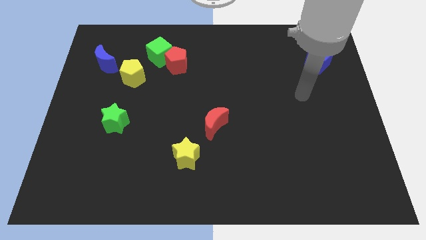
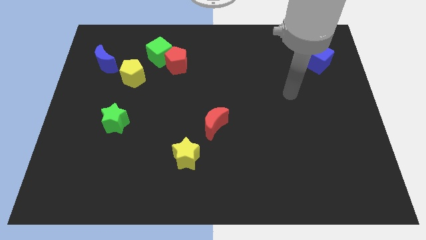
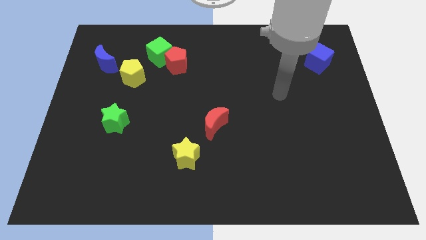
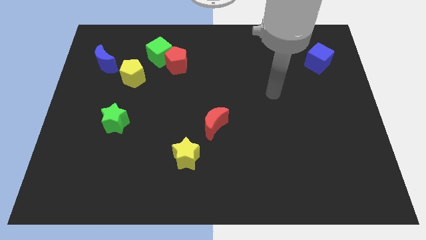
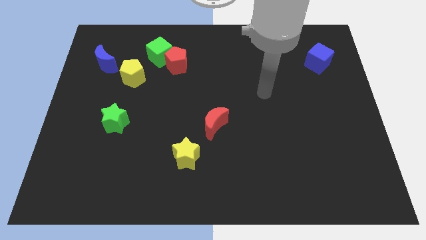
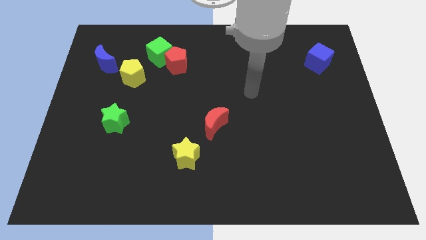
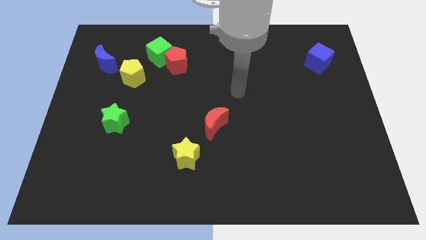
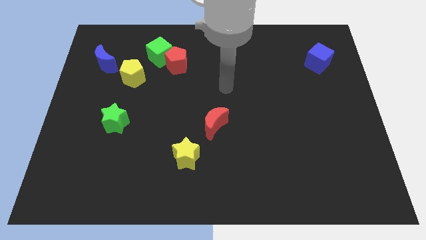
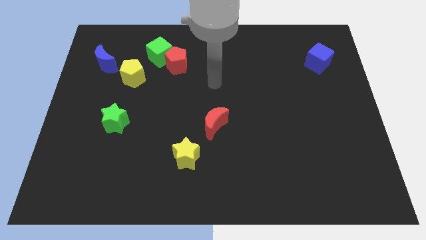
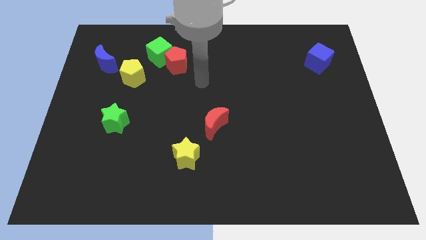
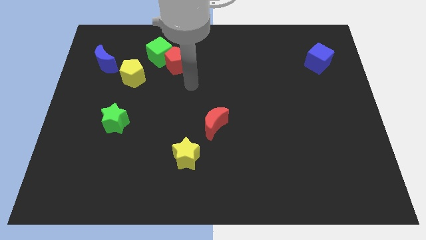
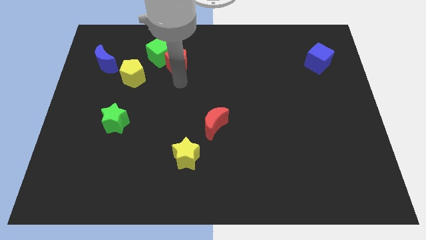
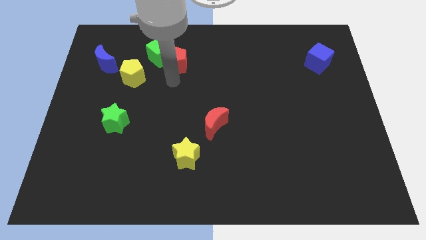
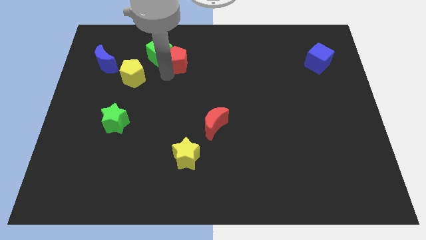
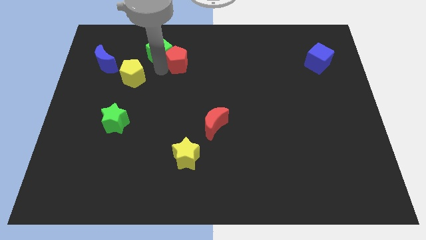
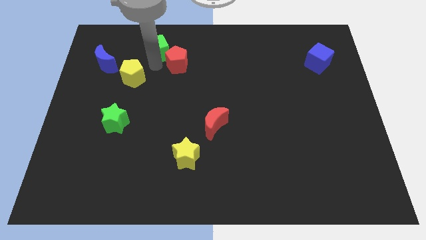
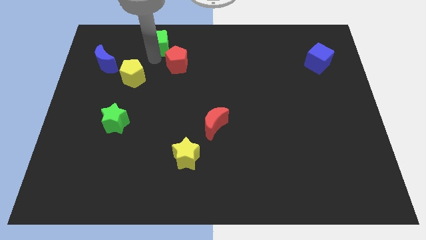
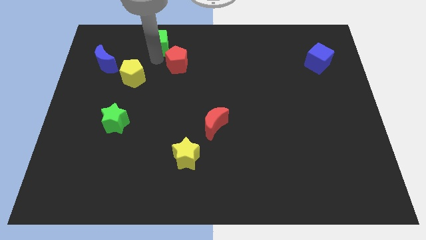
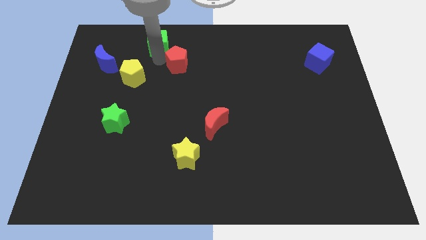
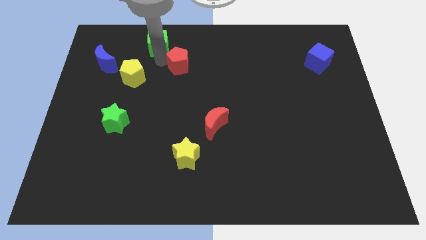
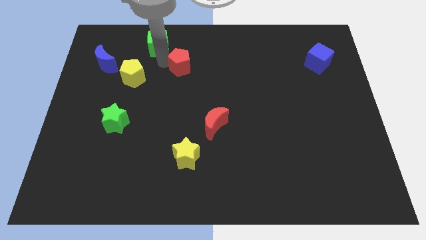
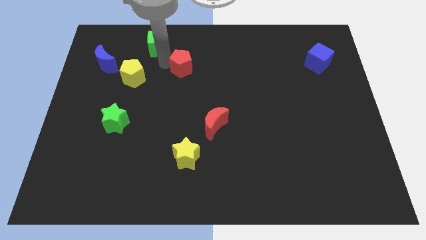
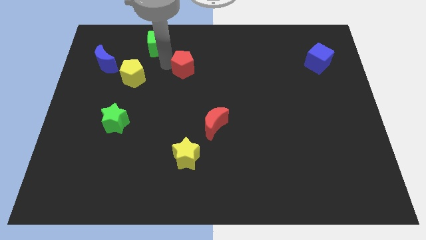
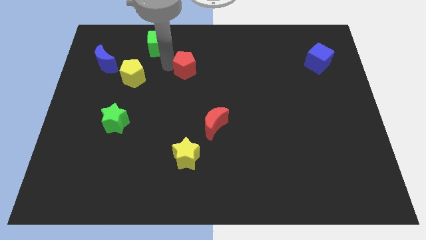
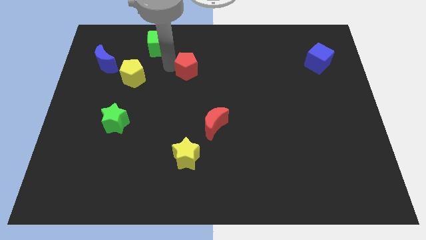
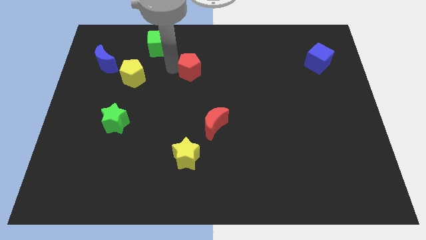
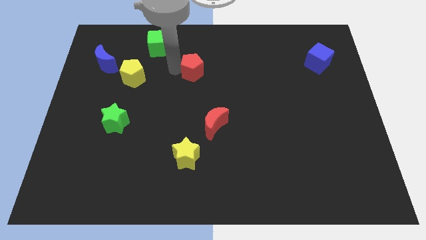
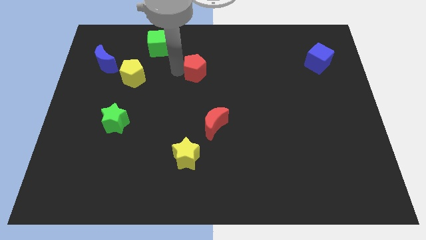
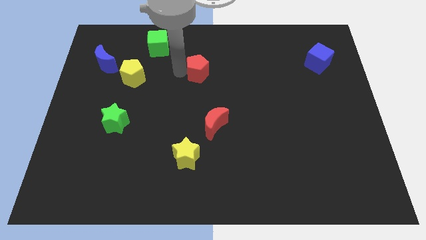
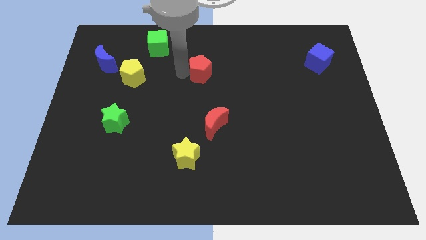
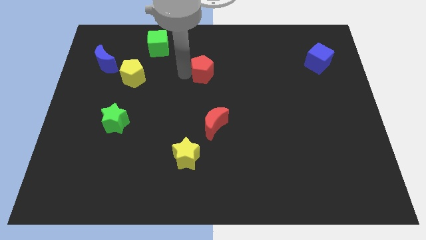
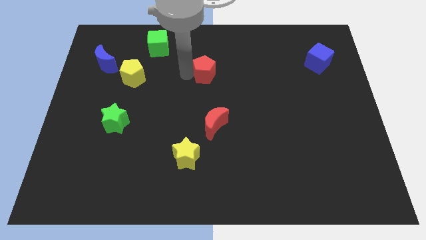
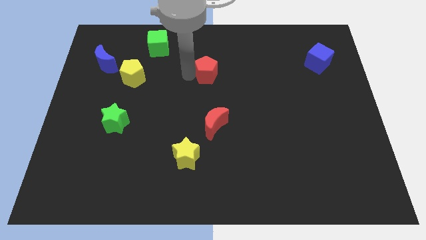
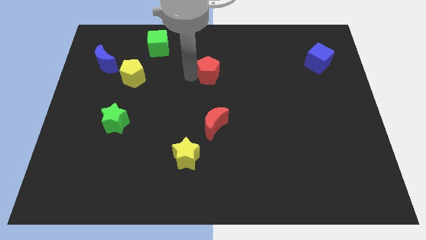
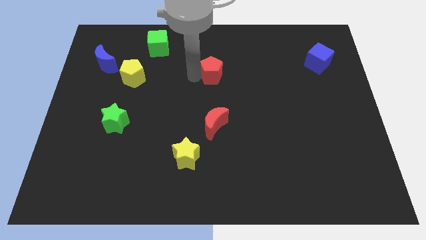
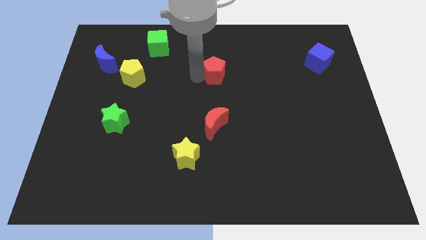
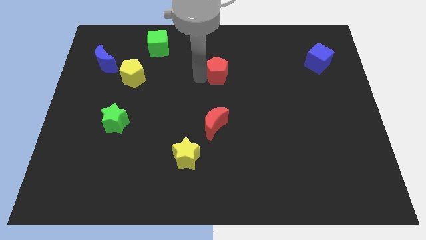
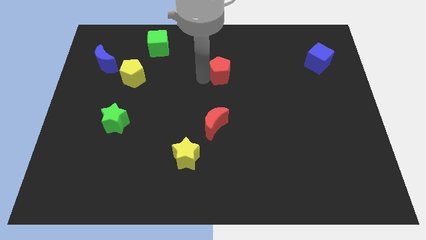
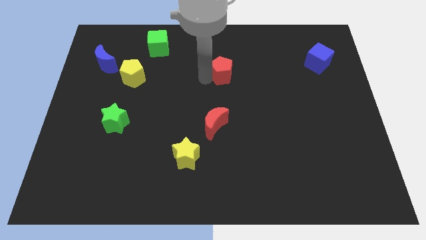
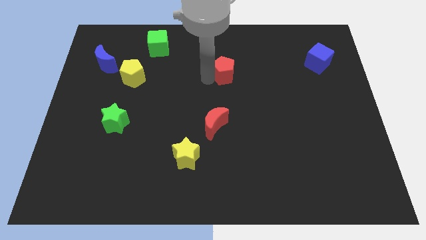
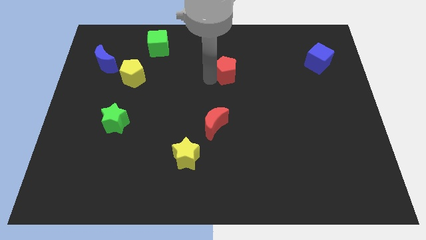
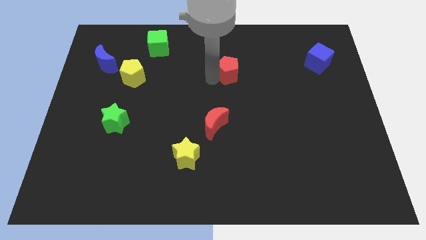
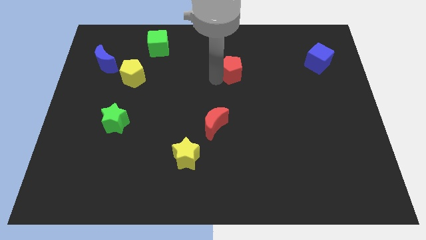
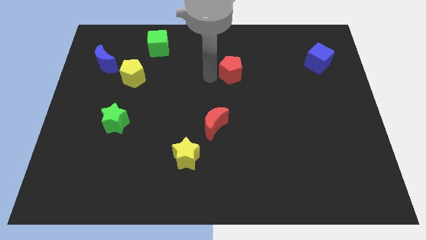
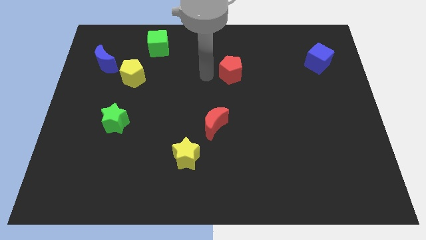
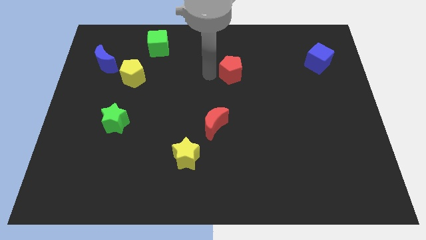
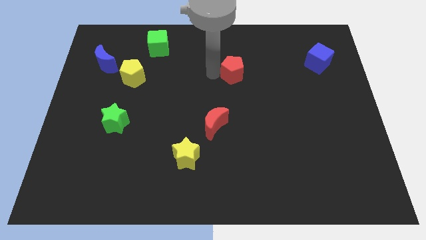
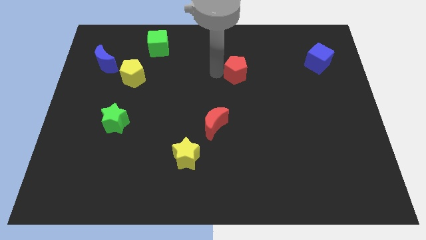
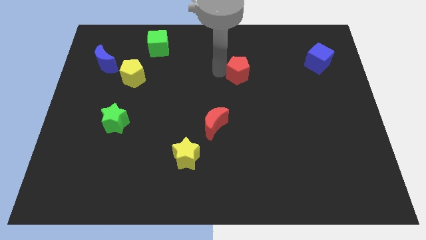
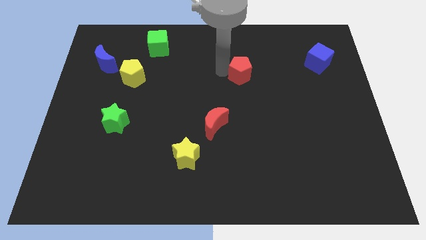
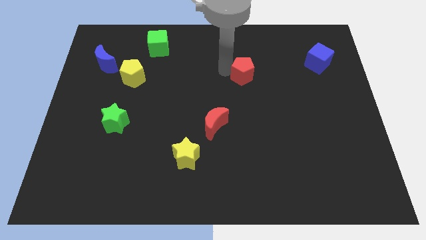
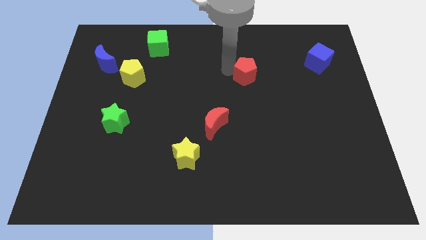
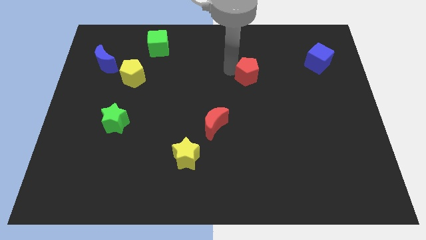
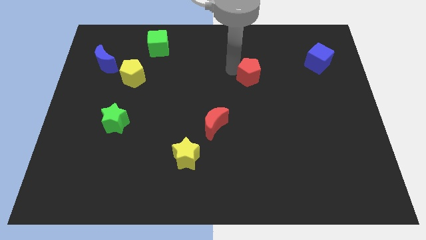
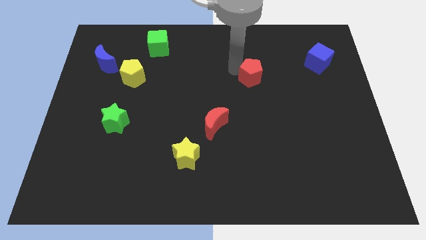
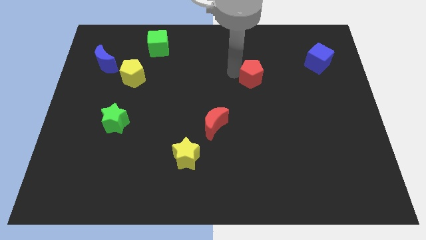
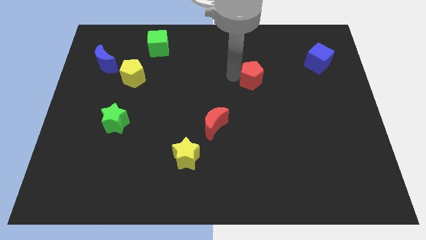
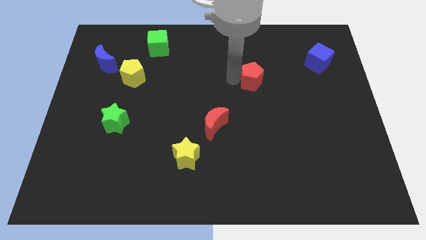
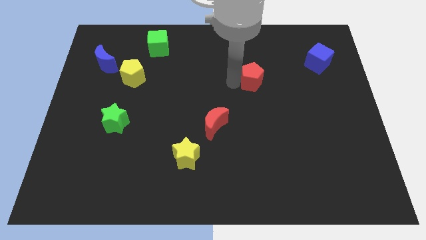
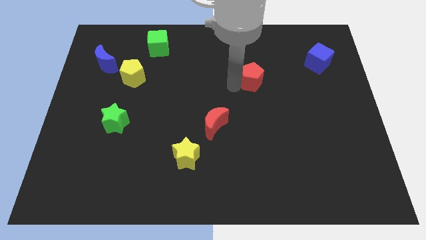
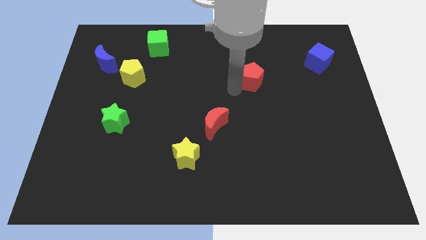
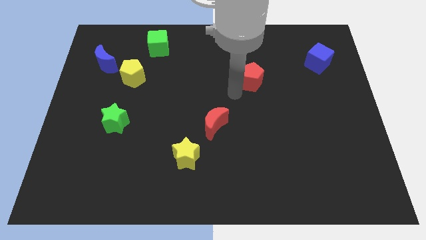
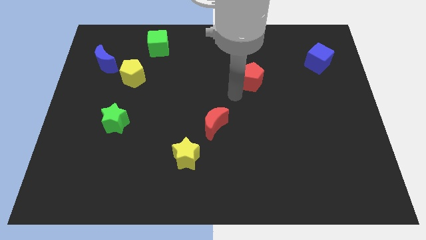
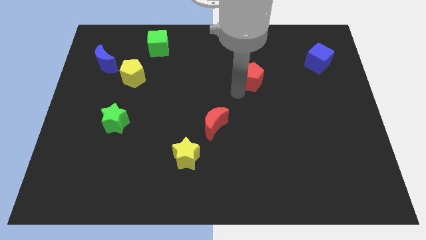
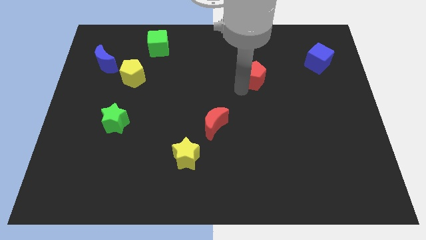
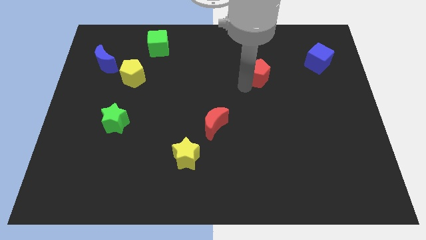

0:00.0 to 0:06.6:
push the red pentagon to the right

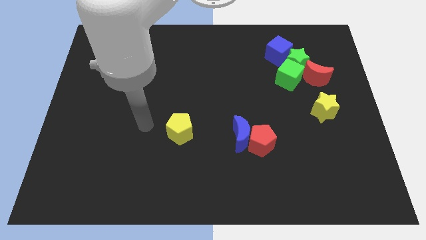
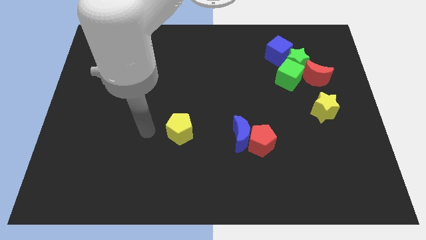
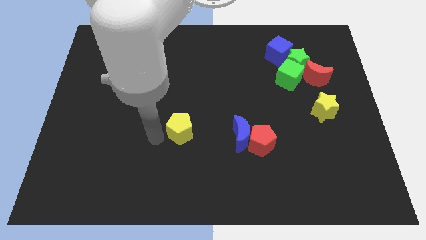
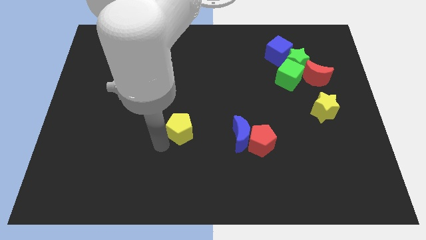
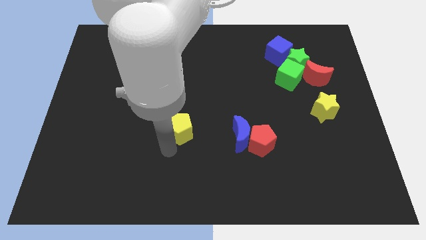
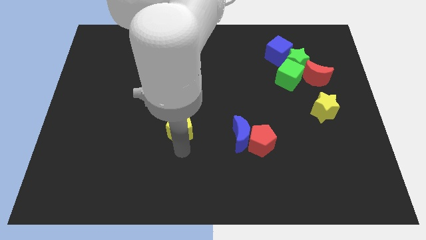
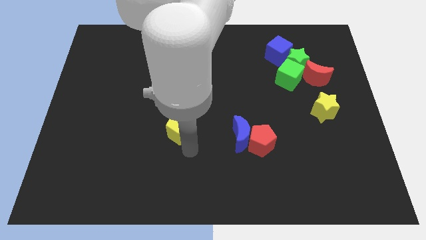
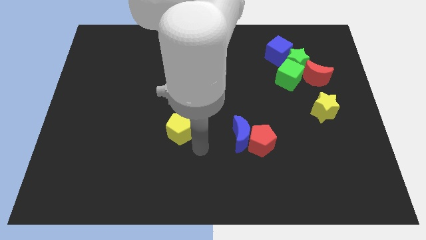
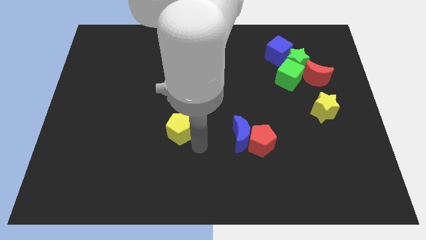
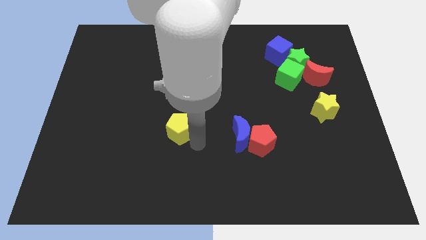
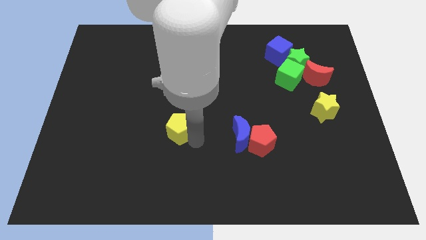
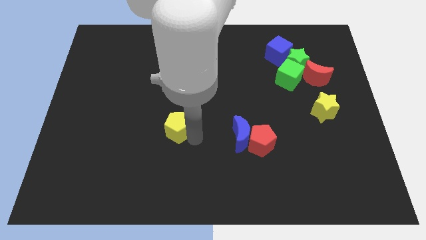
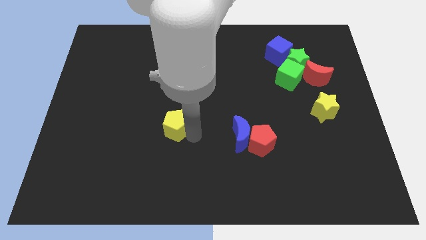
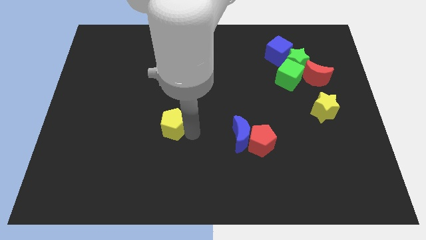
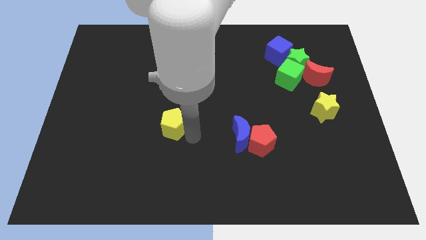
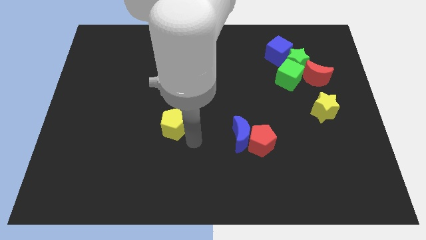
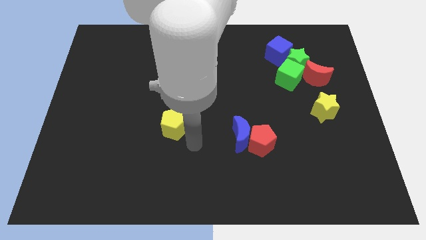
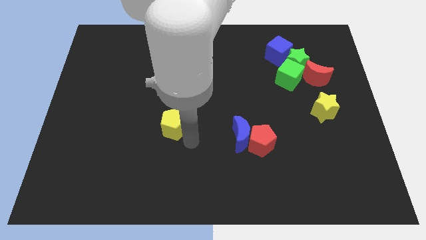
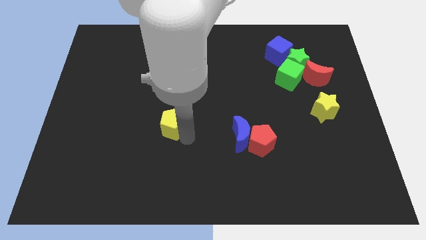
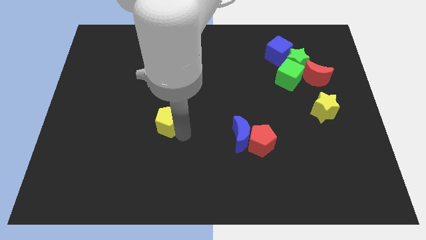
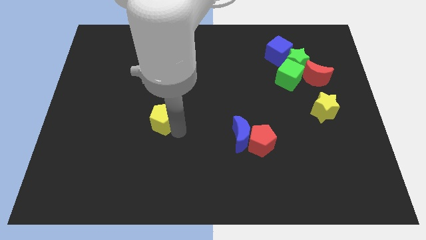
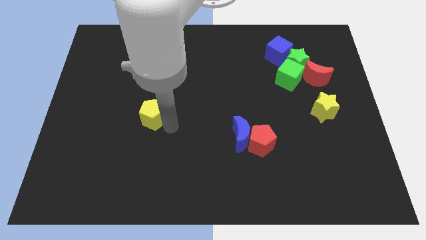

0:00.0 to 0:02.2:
move the yellow pentagon upwards and then to the left somewhat
